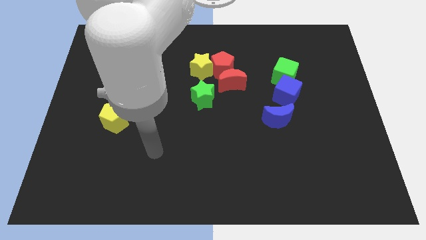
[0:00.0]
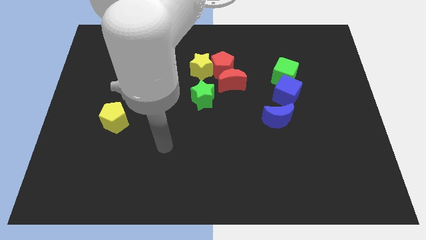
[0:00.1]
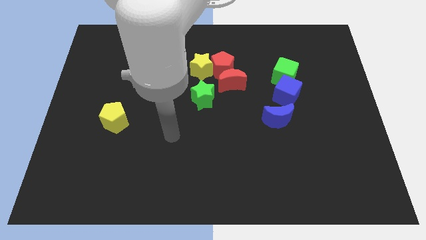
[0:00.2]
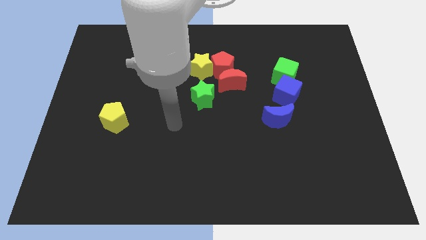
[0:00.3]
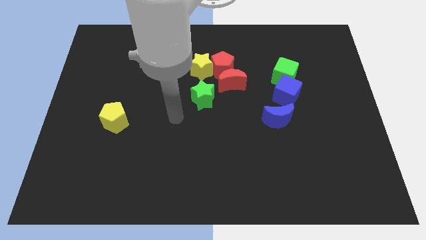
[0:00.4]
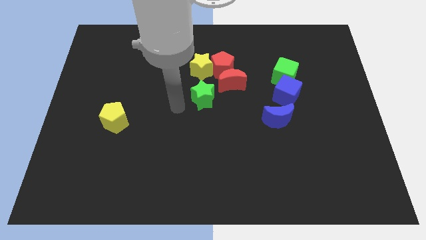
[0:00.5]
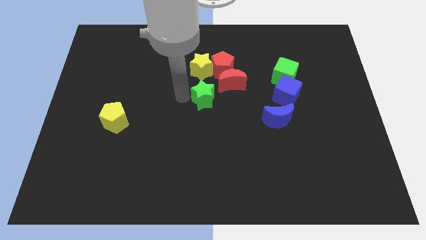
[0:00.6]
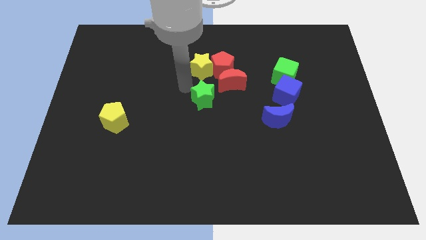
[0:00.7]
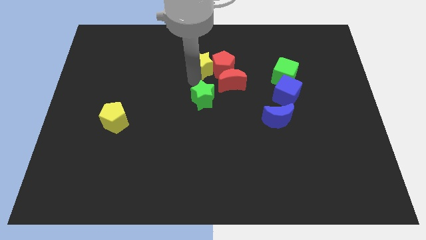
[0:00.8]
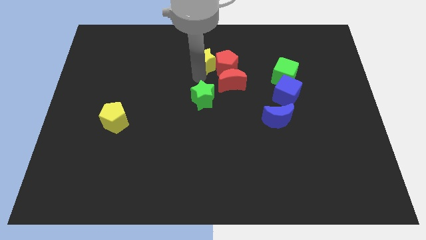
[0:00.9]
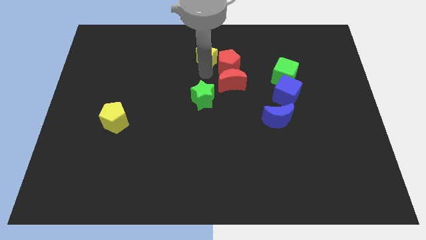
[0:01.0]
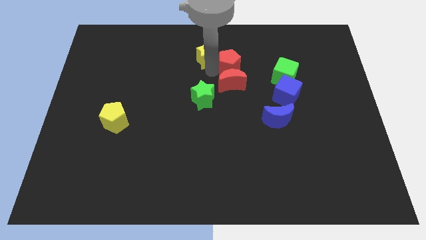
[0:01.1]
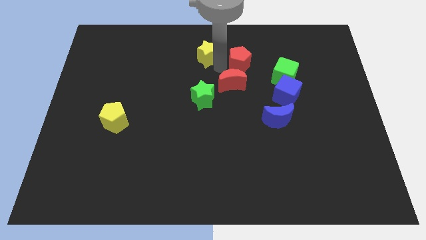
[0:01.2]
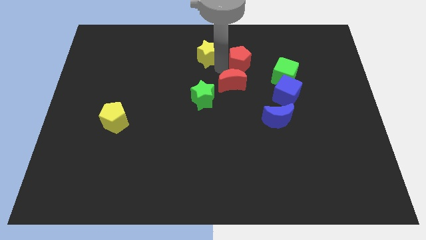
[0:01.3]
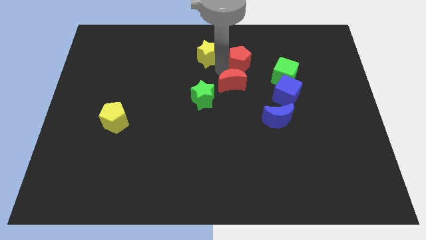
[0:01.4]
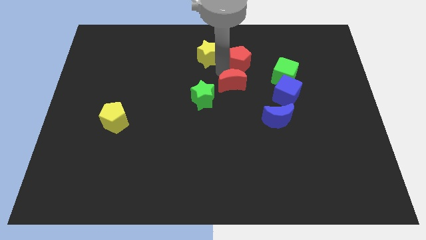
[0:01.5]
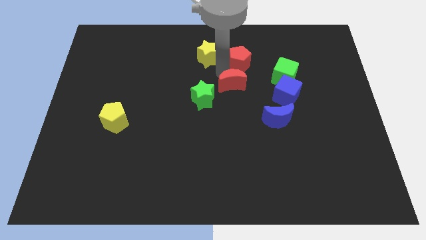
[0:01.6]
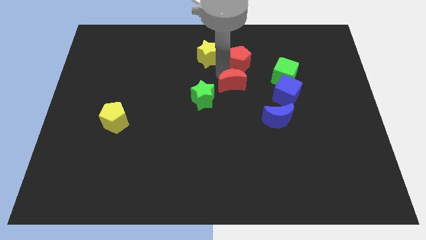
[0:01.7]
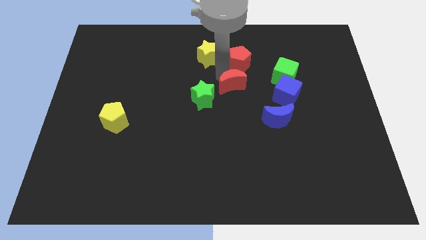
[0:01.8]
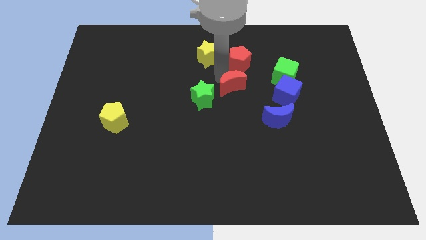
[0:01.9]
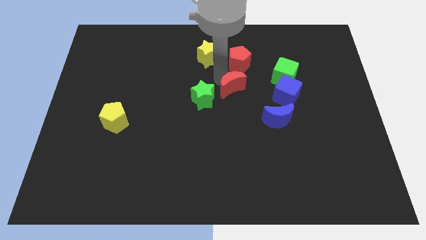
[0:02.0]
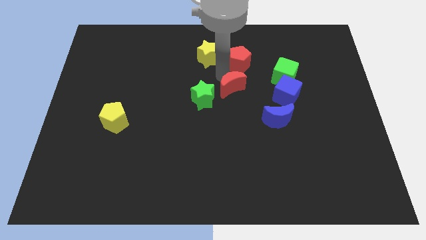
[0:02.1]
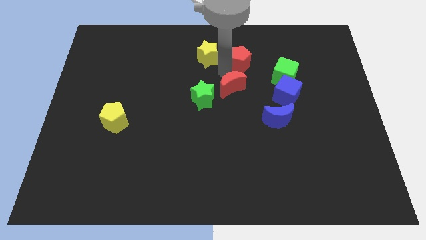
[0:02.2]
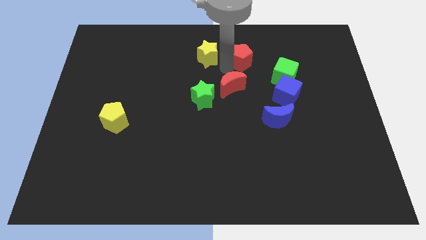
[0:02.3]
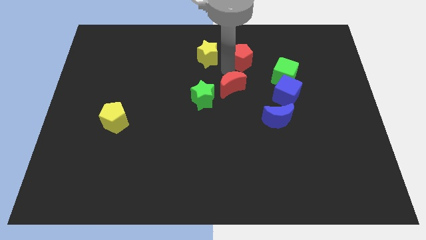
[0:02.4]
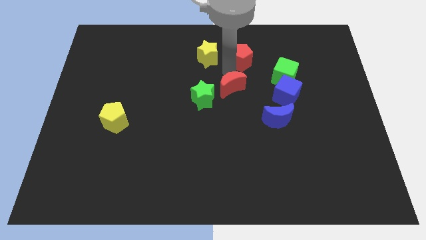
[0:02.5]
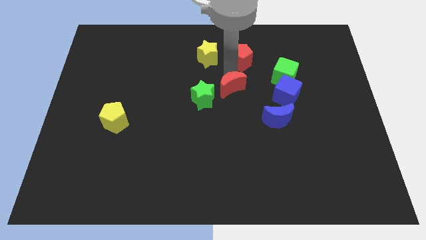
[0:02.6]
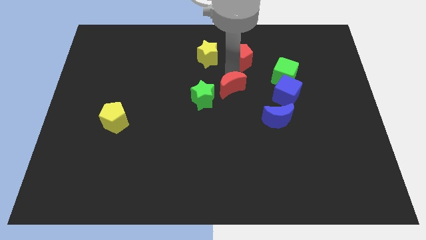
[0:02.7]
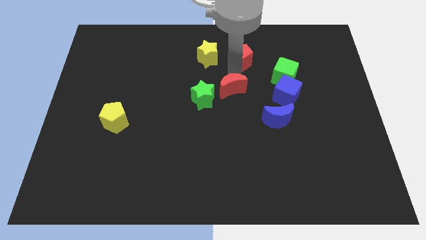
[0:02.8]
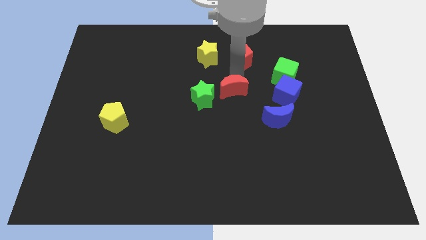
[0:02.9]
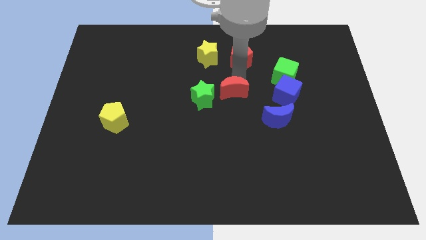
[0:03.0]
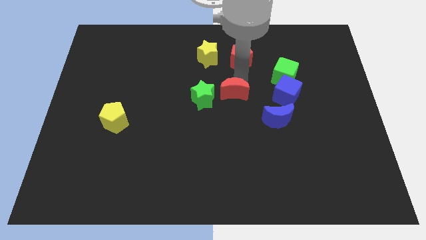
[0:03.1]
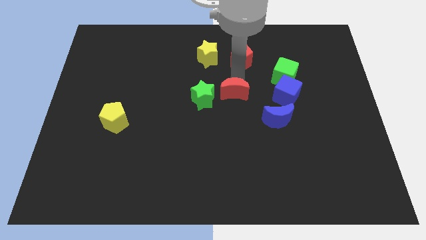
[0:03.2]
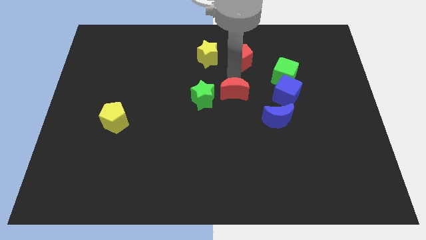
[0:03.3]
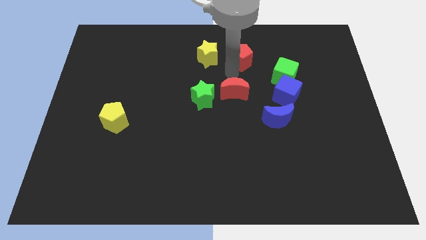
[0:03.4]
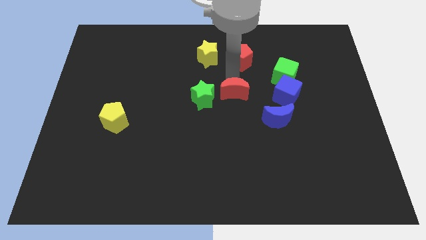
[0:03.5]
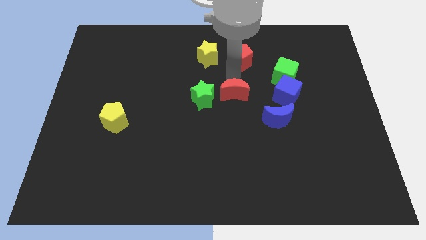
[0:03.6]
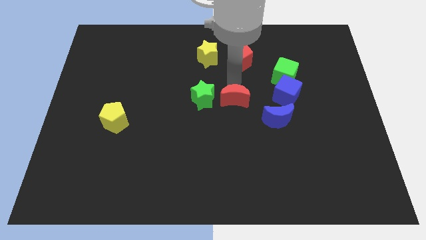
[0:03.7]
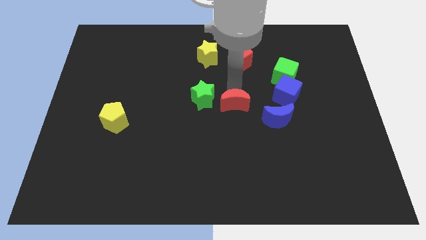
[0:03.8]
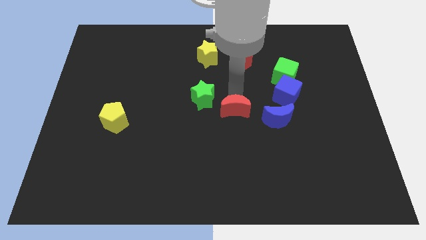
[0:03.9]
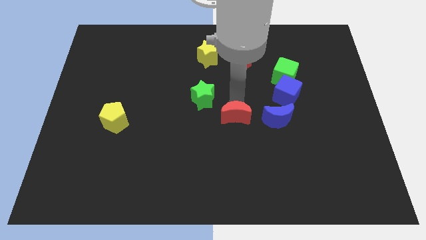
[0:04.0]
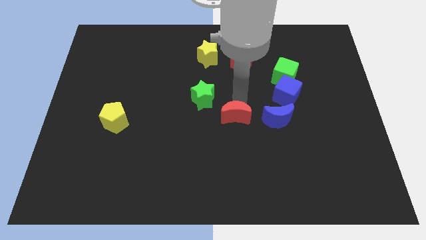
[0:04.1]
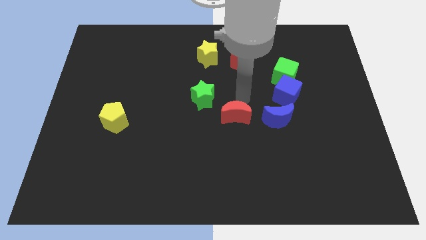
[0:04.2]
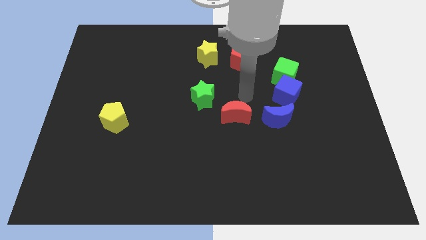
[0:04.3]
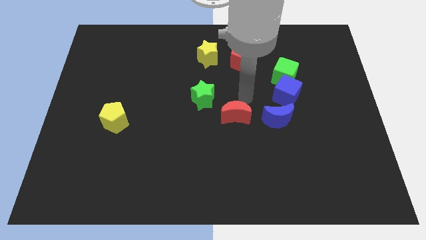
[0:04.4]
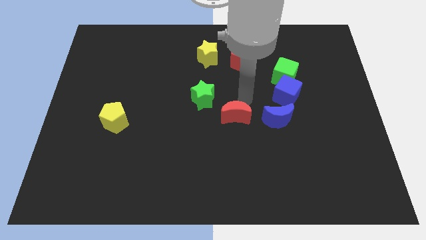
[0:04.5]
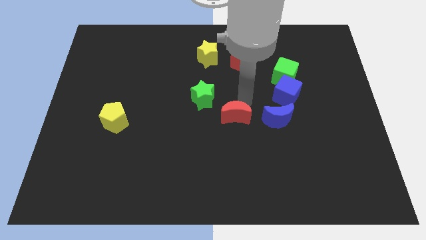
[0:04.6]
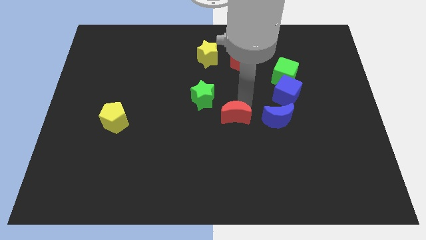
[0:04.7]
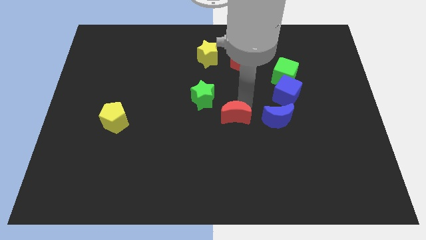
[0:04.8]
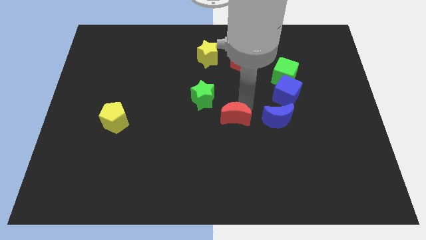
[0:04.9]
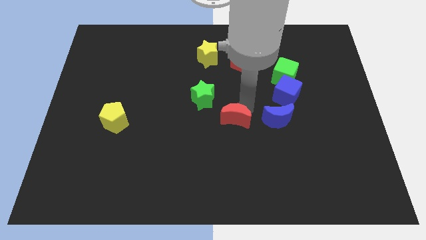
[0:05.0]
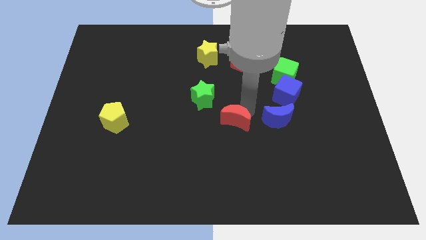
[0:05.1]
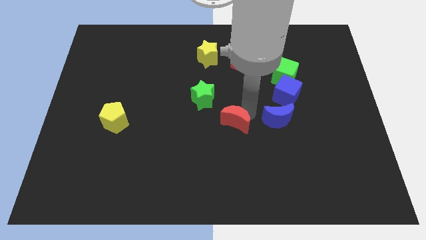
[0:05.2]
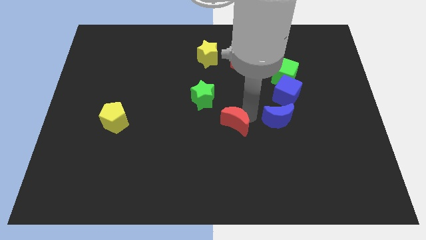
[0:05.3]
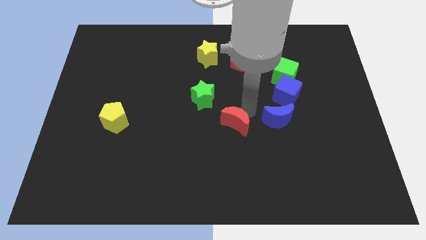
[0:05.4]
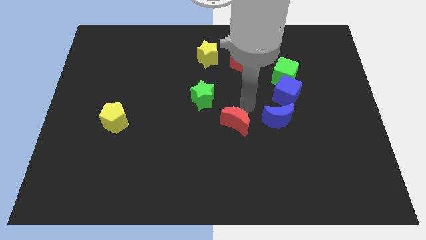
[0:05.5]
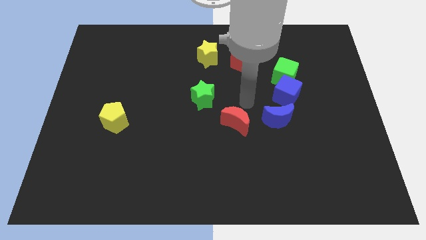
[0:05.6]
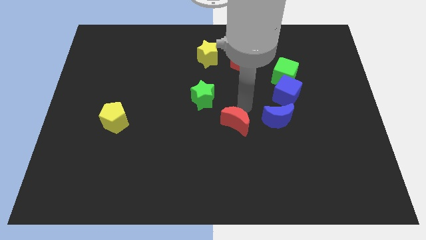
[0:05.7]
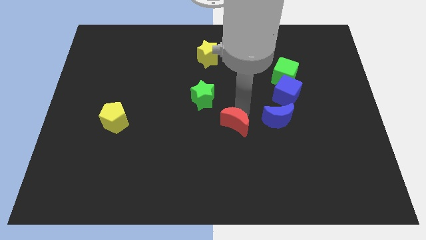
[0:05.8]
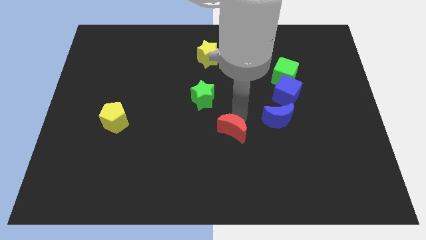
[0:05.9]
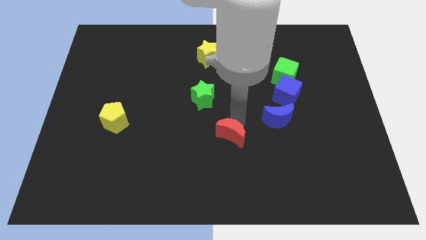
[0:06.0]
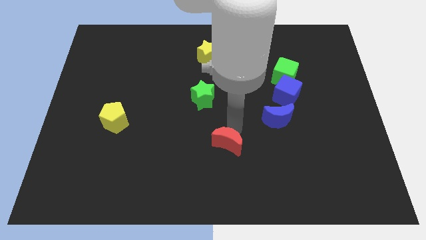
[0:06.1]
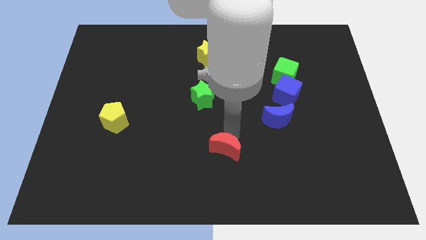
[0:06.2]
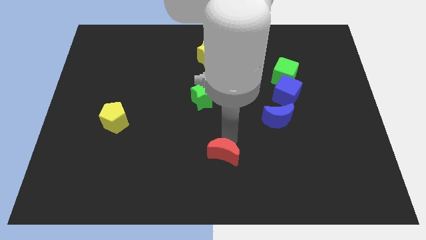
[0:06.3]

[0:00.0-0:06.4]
slide the red moon to the bottom side

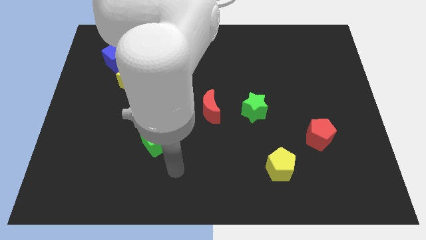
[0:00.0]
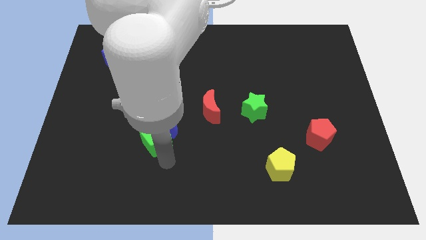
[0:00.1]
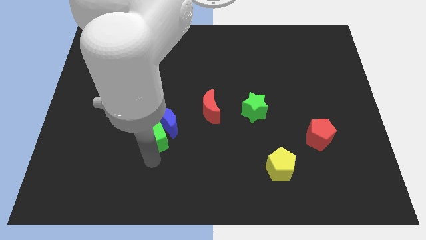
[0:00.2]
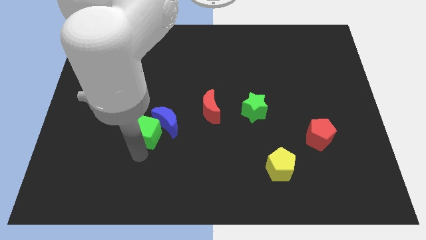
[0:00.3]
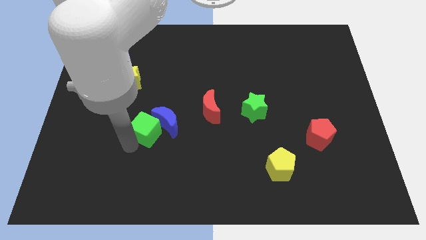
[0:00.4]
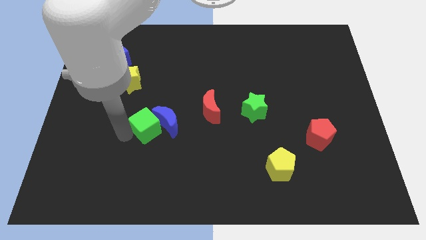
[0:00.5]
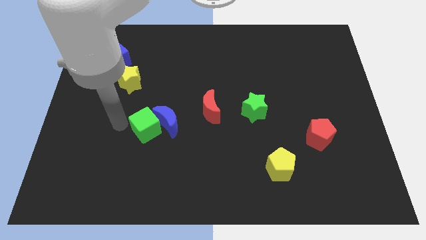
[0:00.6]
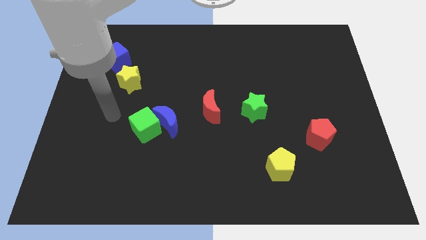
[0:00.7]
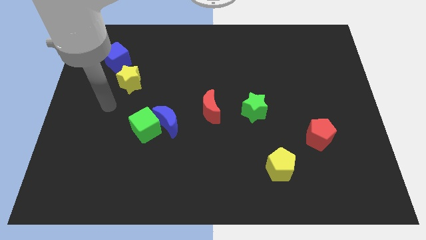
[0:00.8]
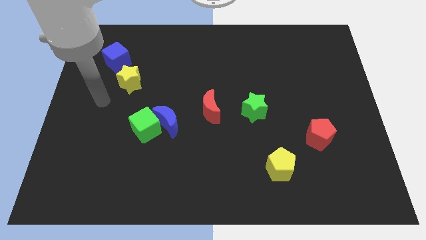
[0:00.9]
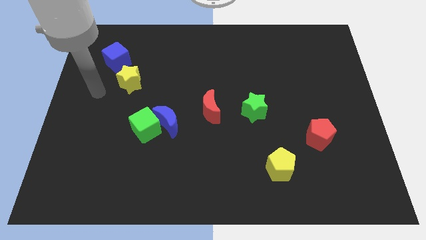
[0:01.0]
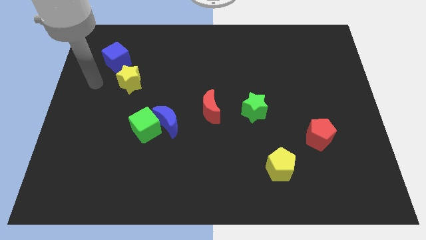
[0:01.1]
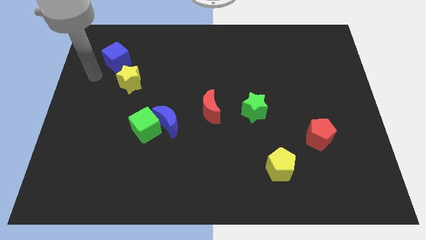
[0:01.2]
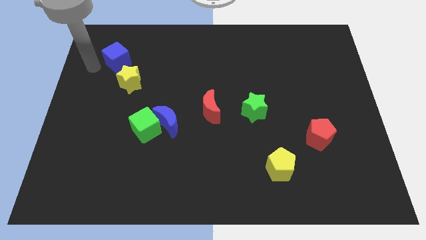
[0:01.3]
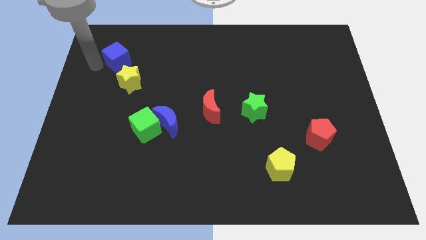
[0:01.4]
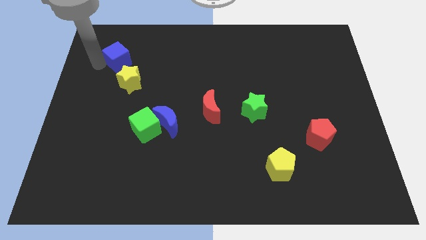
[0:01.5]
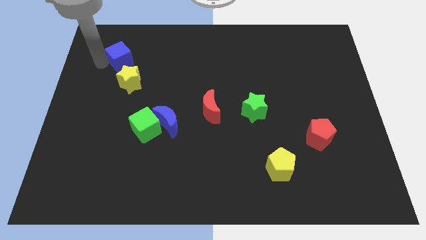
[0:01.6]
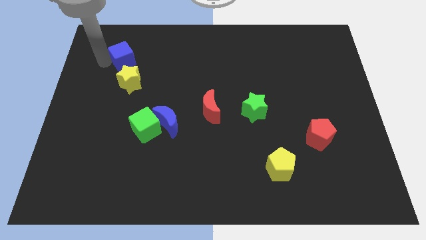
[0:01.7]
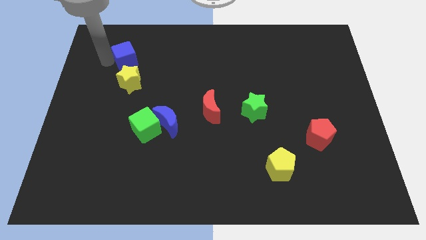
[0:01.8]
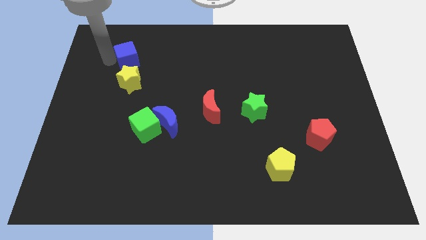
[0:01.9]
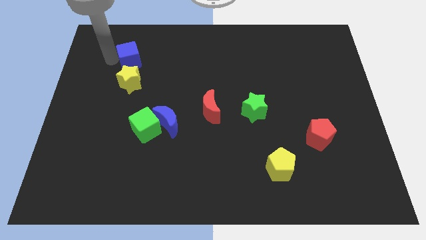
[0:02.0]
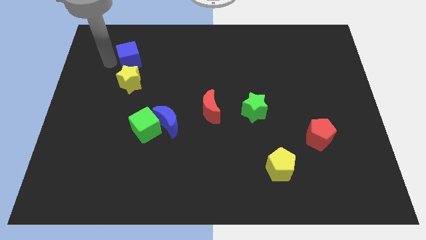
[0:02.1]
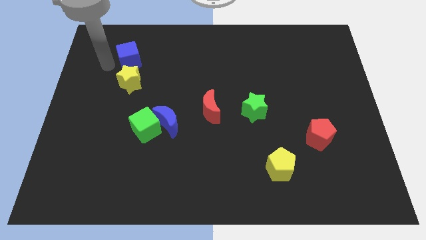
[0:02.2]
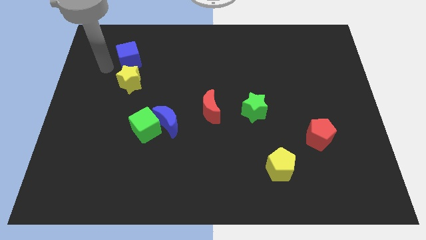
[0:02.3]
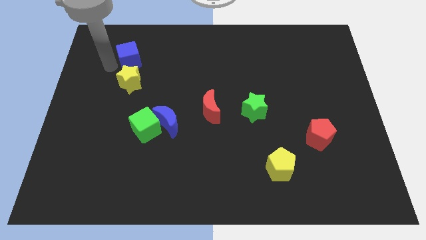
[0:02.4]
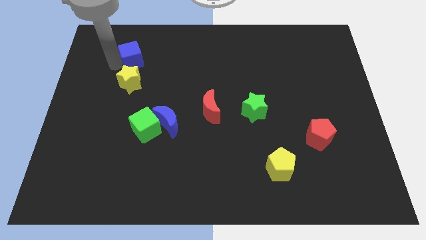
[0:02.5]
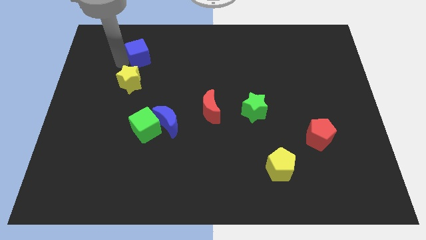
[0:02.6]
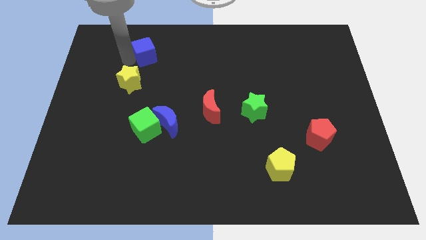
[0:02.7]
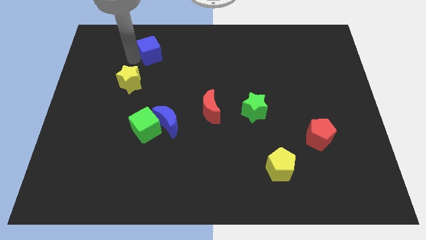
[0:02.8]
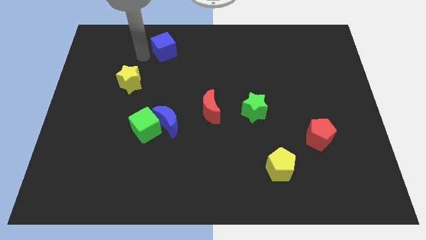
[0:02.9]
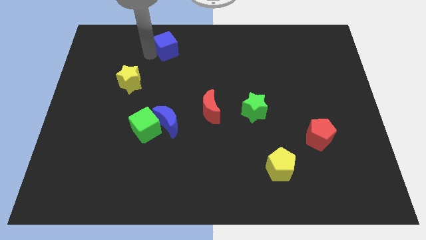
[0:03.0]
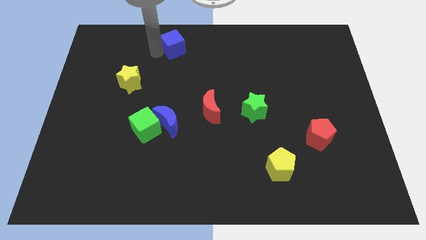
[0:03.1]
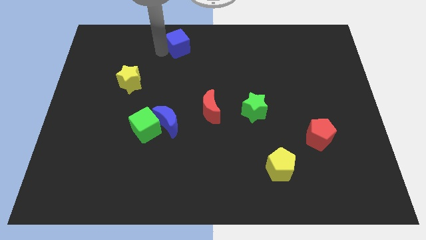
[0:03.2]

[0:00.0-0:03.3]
put the blue cube to the top side
